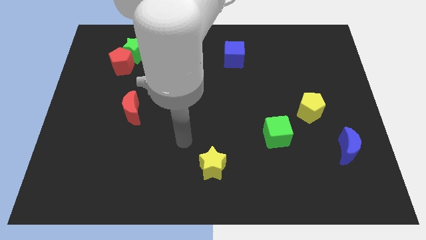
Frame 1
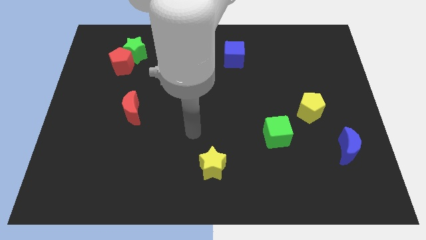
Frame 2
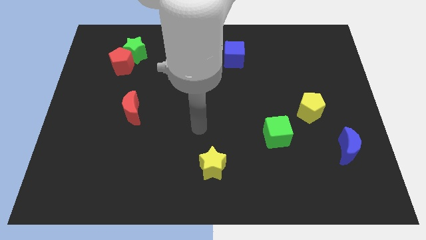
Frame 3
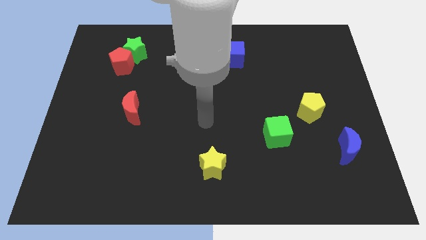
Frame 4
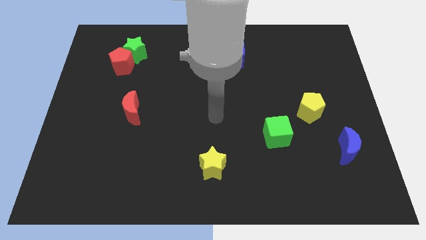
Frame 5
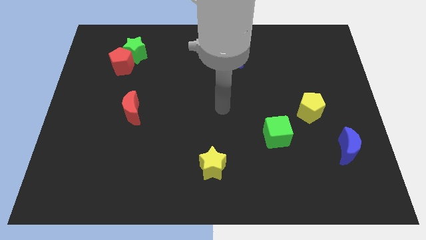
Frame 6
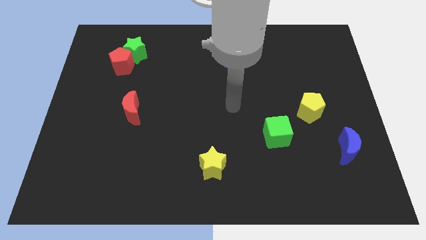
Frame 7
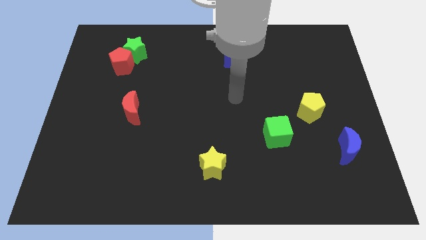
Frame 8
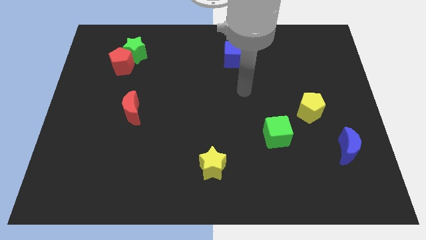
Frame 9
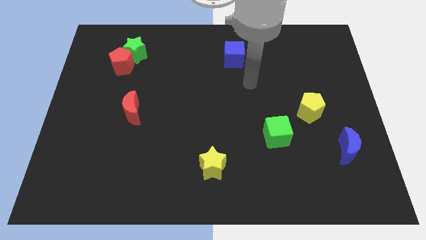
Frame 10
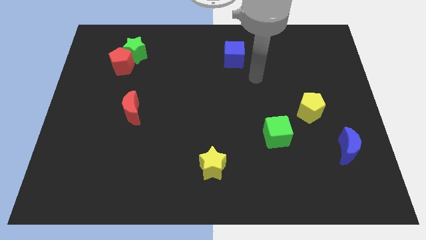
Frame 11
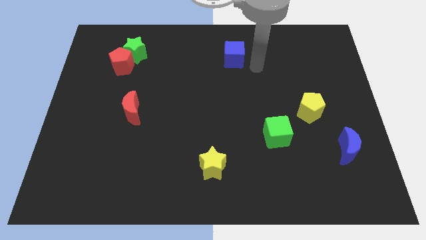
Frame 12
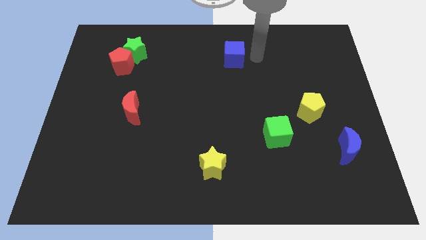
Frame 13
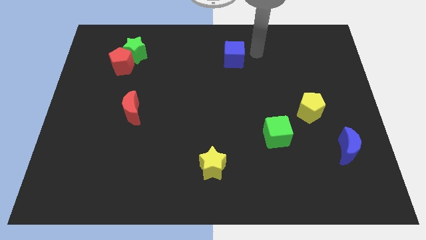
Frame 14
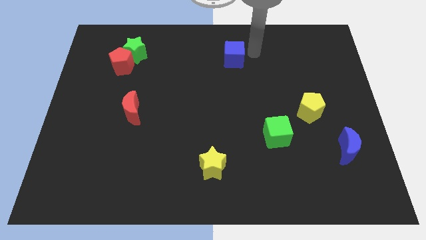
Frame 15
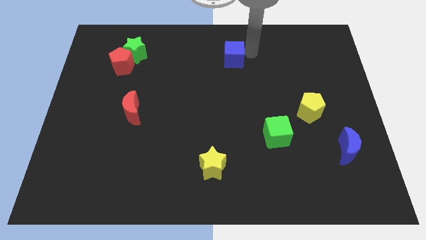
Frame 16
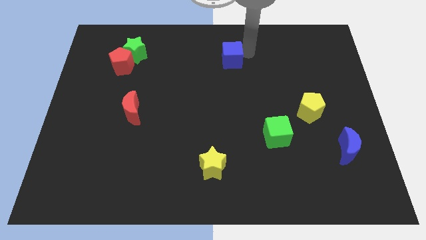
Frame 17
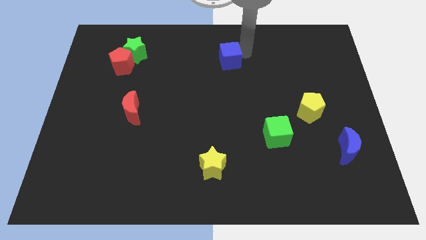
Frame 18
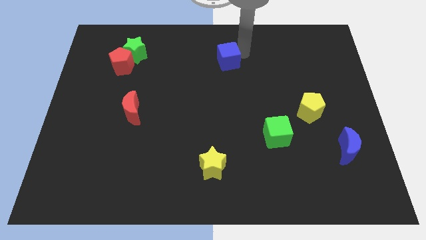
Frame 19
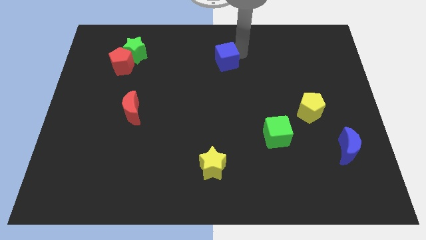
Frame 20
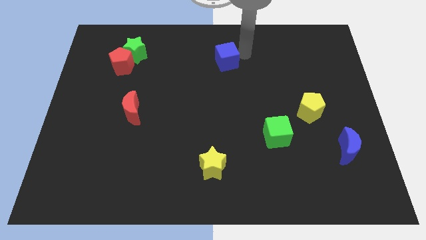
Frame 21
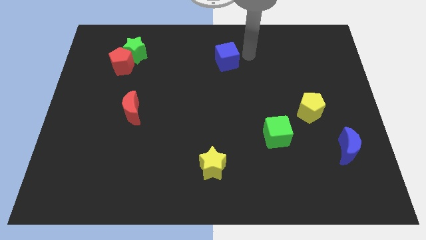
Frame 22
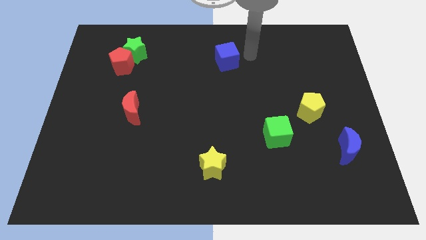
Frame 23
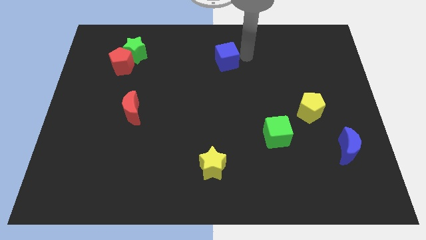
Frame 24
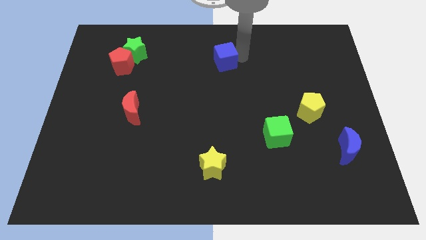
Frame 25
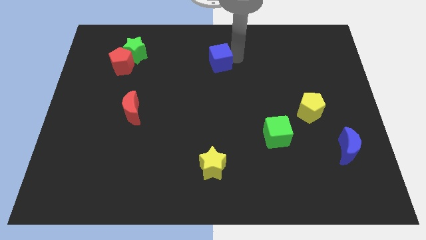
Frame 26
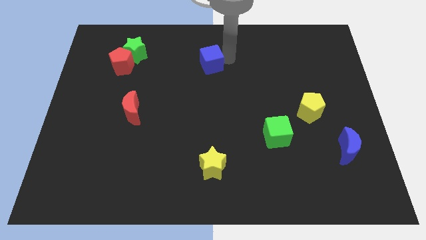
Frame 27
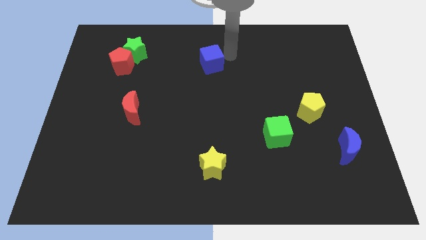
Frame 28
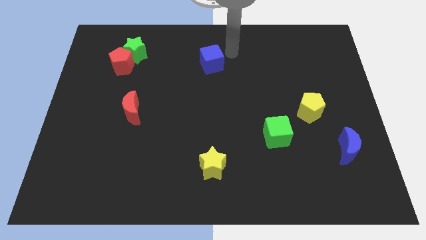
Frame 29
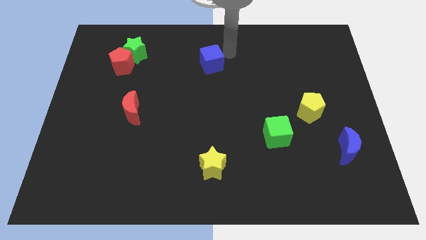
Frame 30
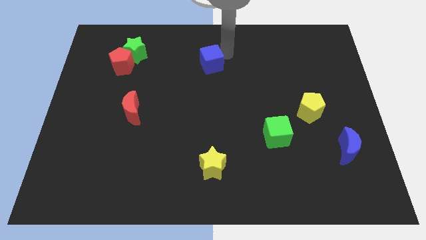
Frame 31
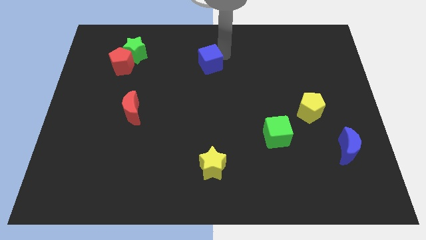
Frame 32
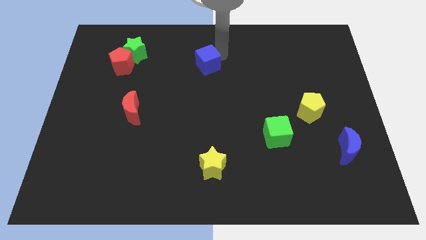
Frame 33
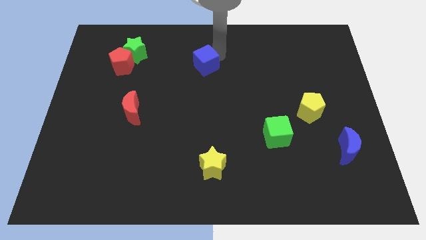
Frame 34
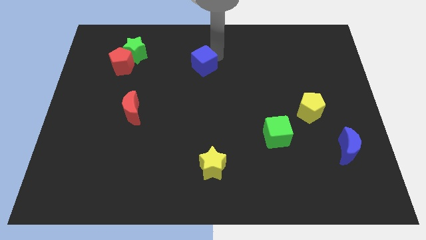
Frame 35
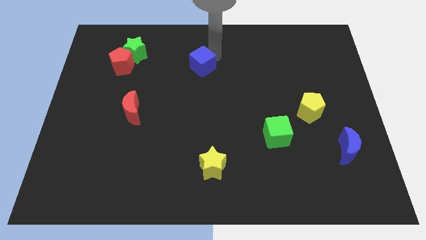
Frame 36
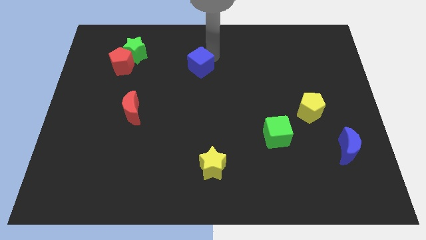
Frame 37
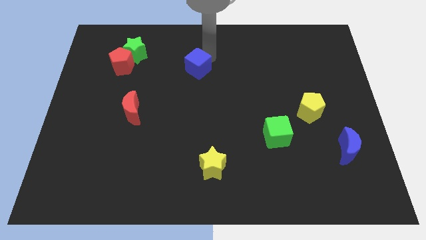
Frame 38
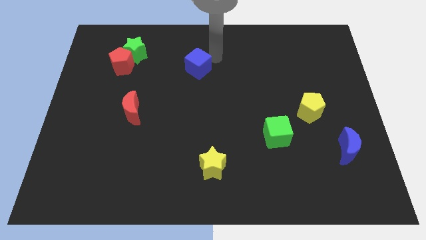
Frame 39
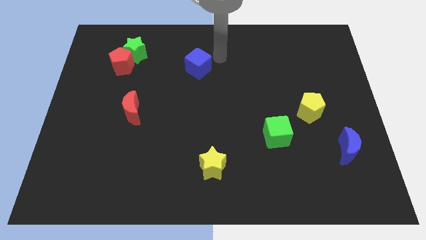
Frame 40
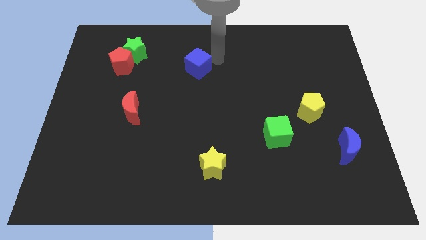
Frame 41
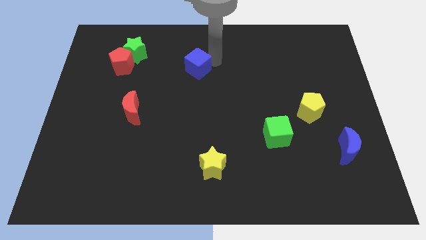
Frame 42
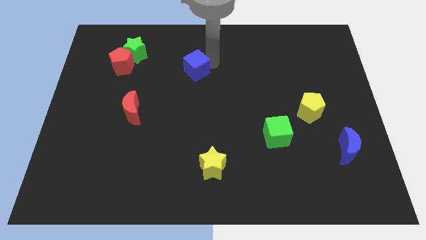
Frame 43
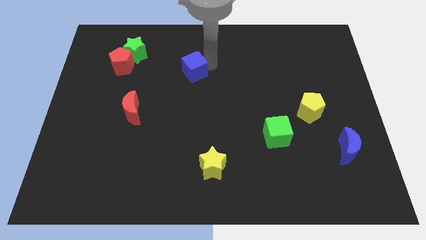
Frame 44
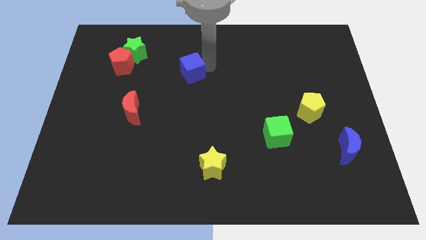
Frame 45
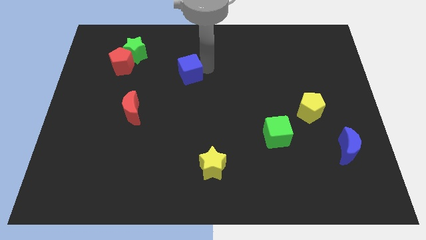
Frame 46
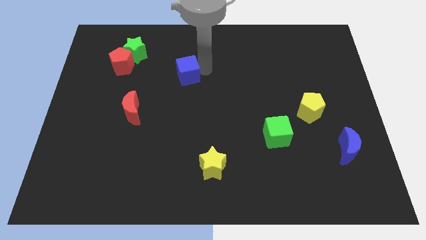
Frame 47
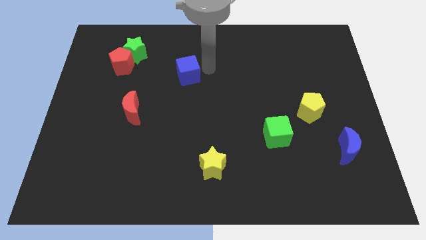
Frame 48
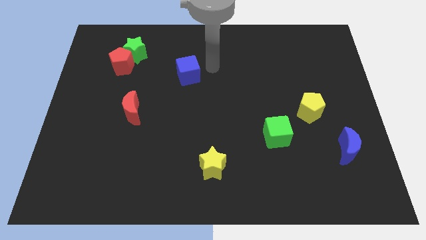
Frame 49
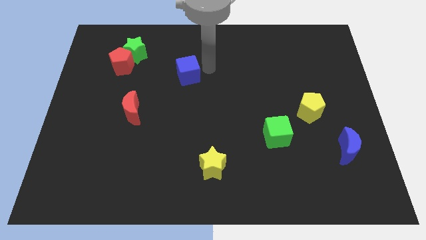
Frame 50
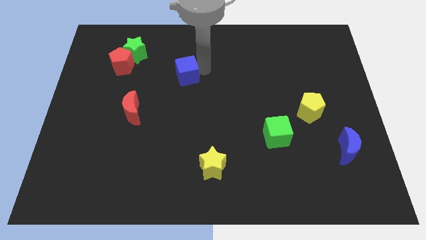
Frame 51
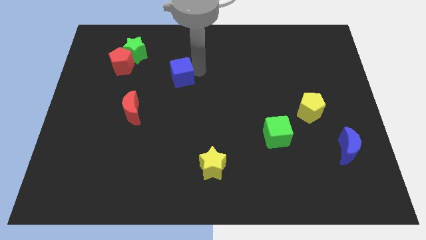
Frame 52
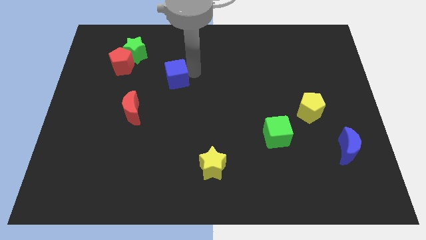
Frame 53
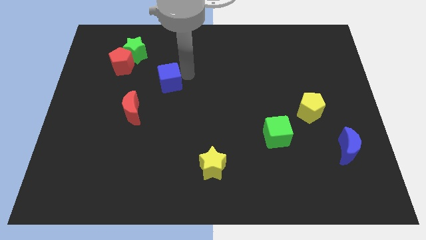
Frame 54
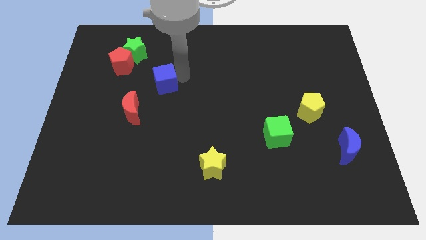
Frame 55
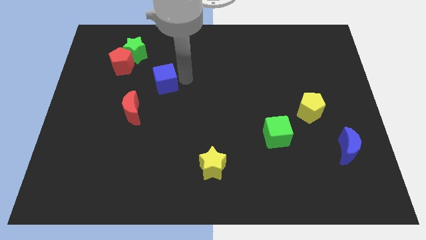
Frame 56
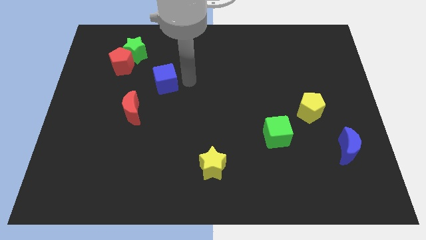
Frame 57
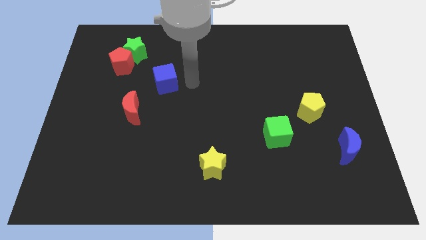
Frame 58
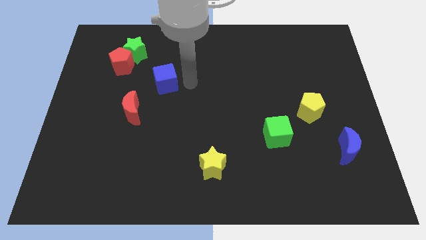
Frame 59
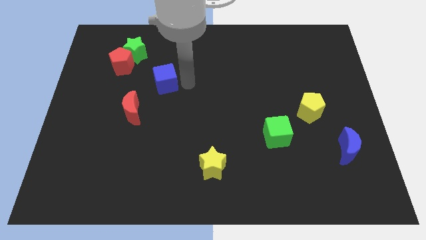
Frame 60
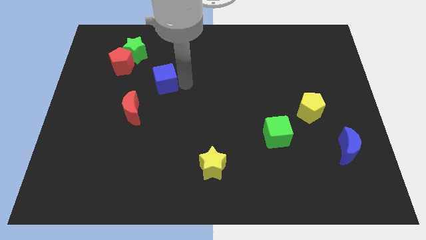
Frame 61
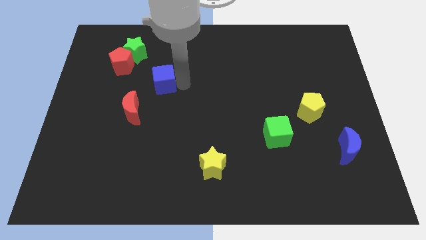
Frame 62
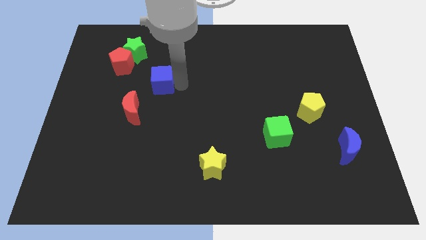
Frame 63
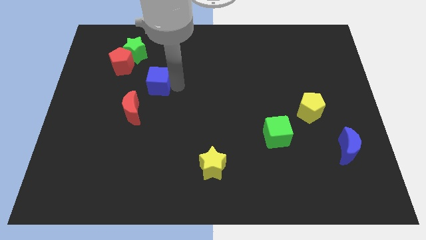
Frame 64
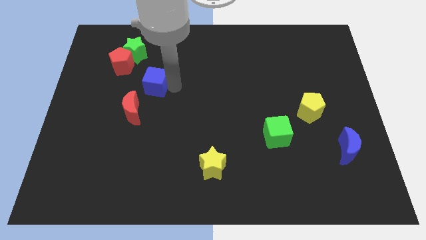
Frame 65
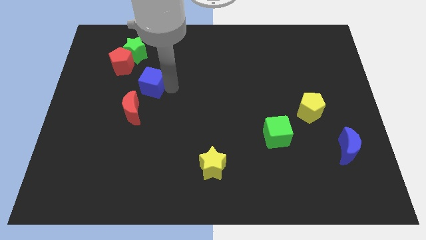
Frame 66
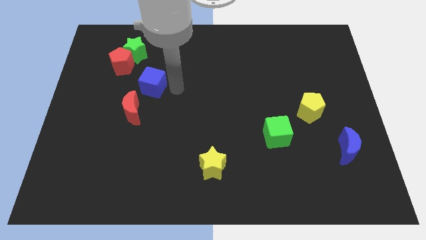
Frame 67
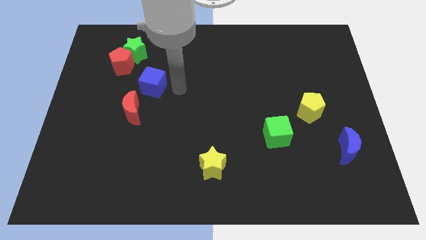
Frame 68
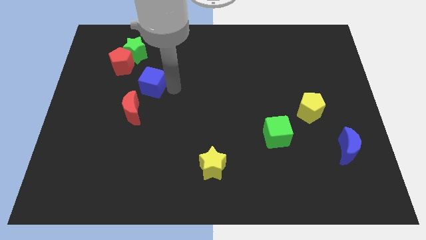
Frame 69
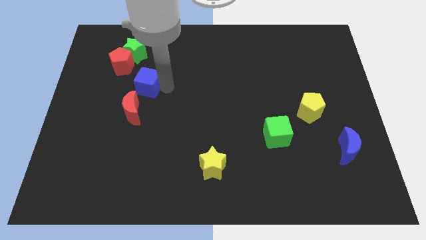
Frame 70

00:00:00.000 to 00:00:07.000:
put the blue cube to the bottom of the green star
